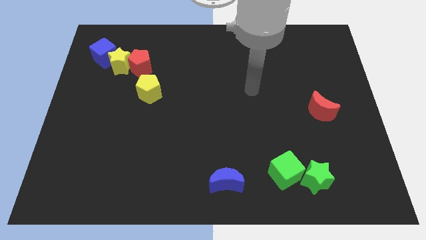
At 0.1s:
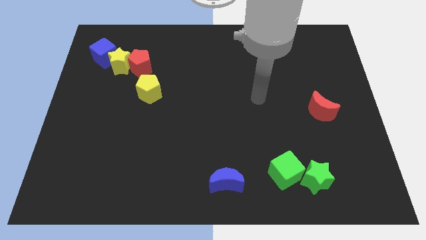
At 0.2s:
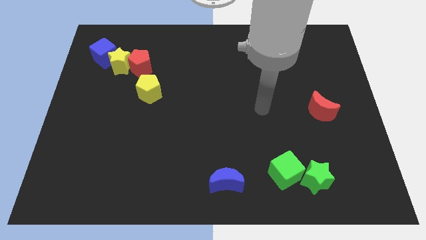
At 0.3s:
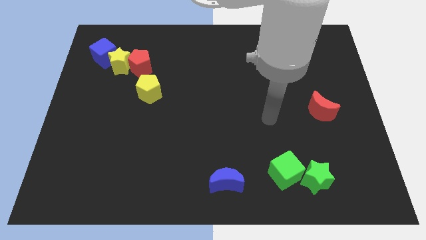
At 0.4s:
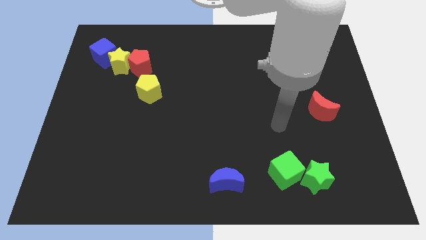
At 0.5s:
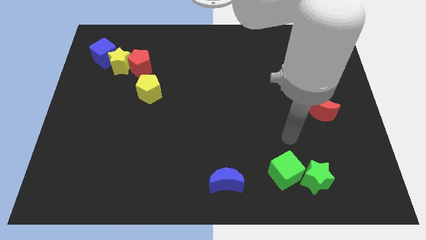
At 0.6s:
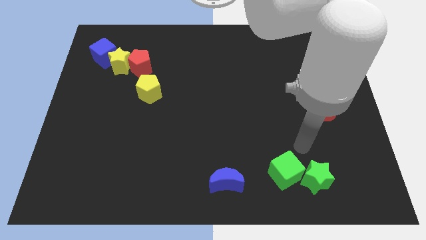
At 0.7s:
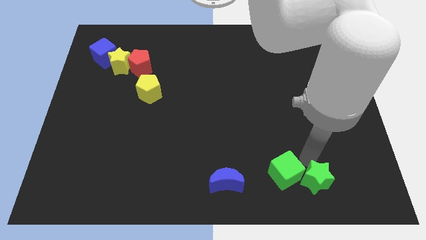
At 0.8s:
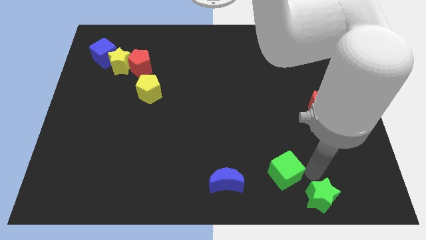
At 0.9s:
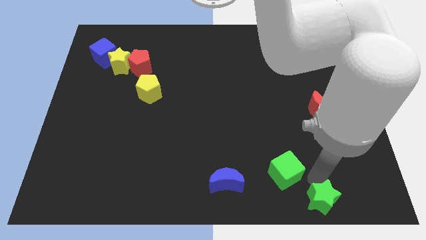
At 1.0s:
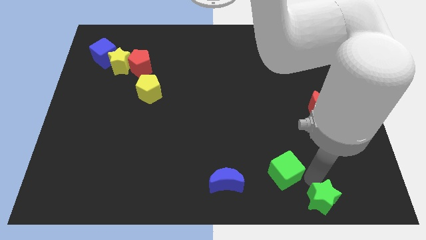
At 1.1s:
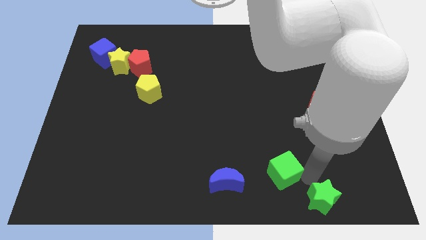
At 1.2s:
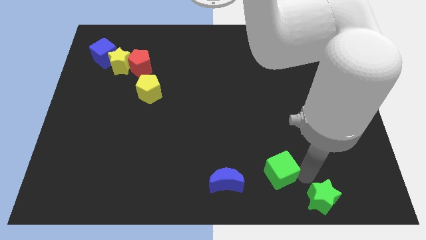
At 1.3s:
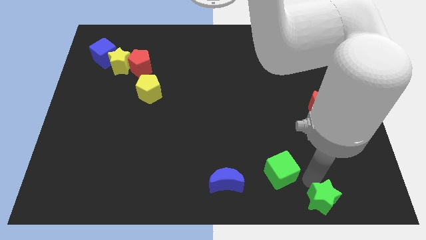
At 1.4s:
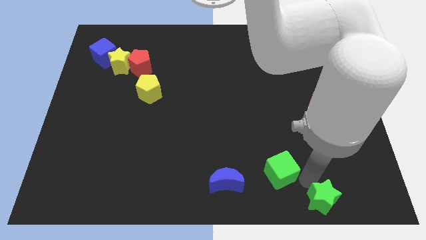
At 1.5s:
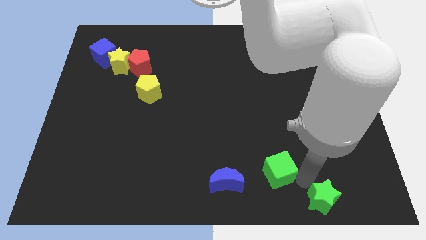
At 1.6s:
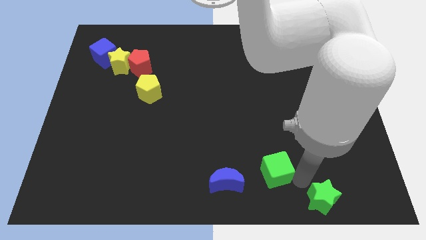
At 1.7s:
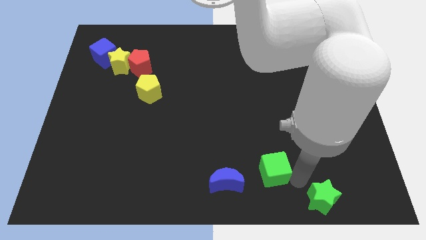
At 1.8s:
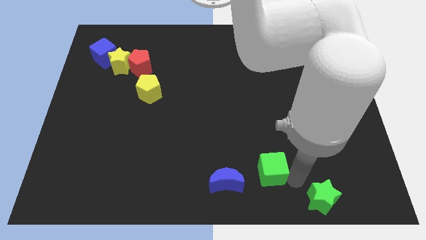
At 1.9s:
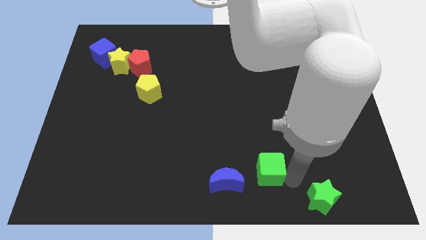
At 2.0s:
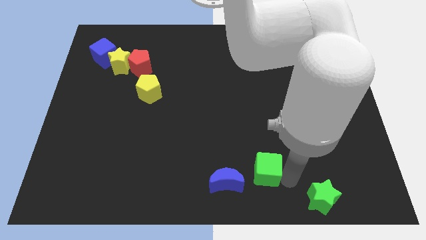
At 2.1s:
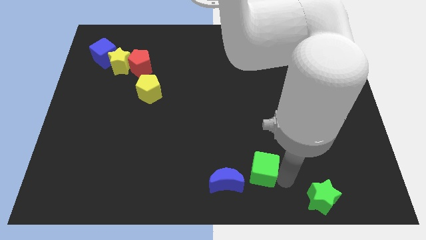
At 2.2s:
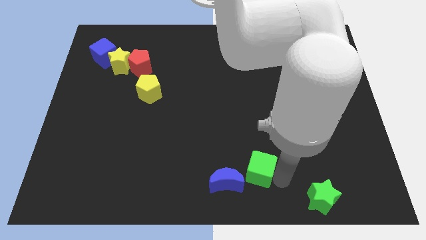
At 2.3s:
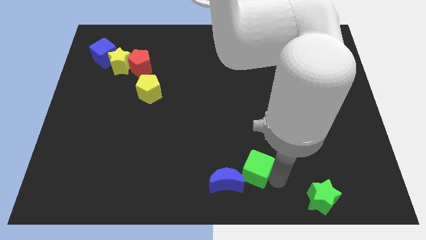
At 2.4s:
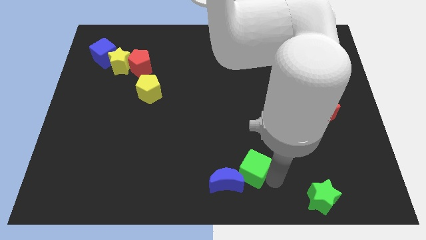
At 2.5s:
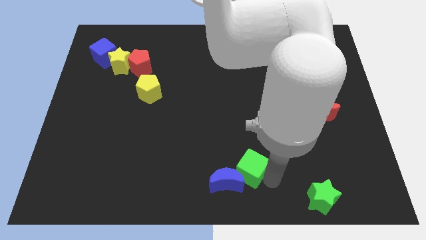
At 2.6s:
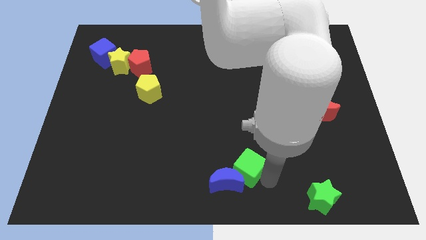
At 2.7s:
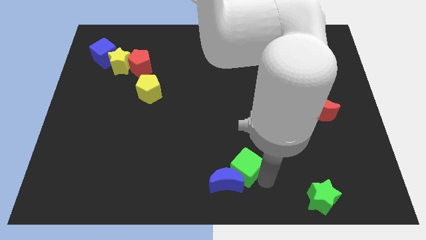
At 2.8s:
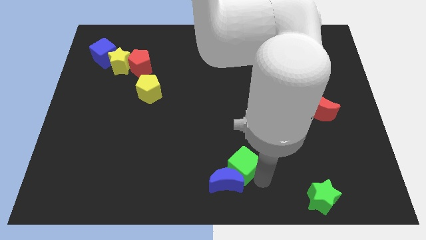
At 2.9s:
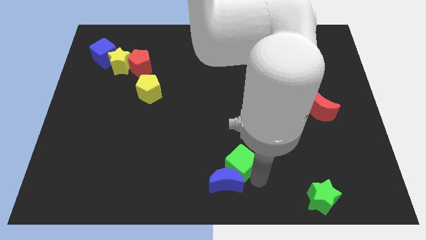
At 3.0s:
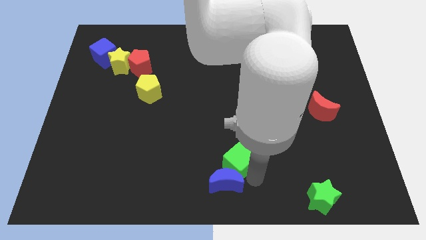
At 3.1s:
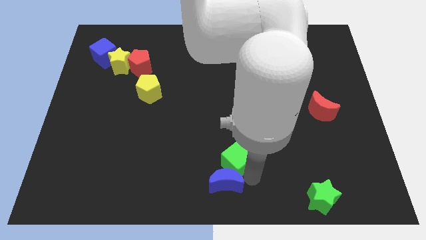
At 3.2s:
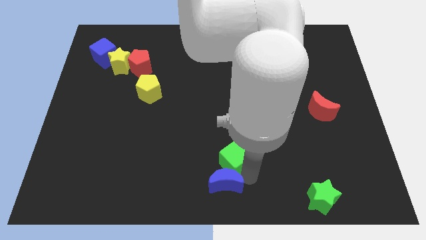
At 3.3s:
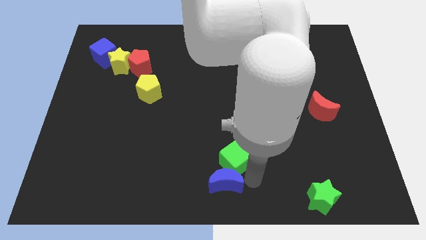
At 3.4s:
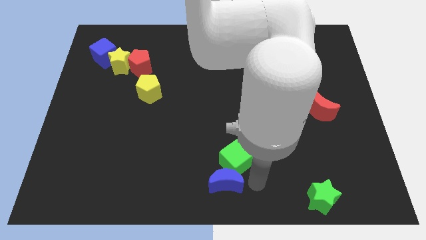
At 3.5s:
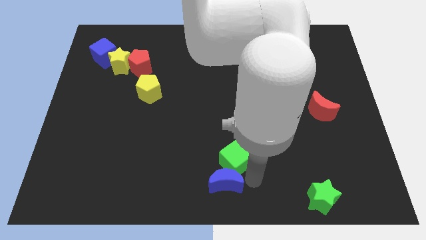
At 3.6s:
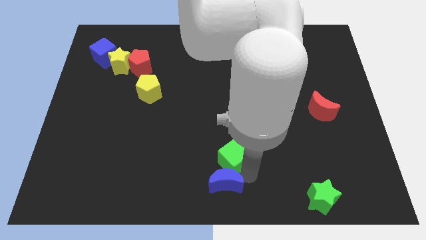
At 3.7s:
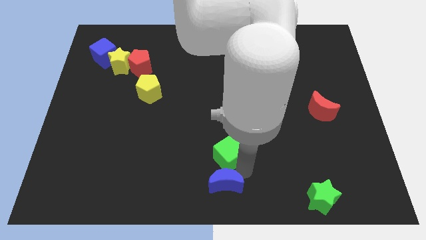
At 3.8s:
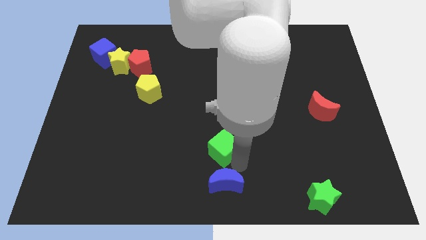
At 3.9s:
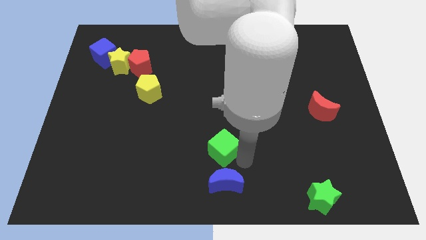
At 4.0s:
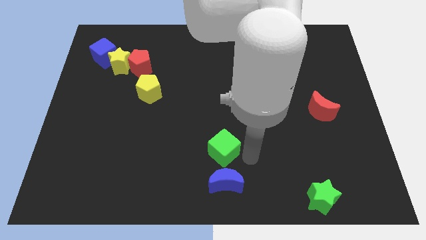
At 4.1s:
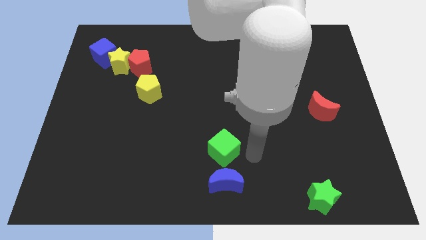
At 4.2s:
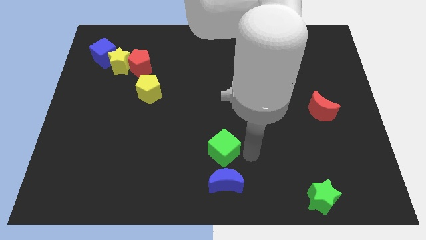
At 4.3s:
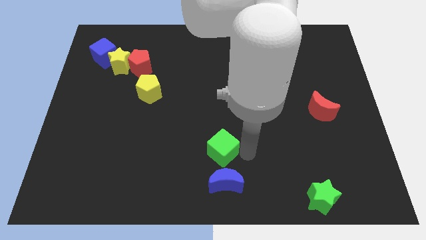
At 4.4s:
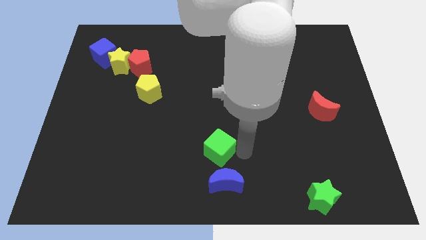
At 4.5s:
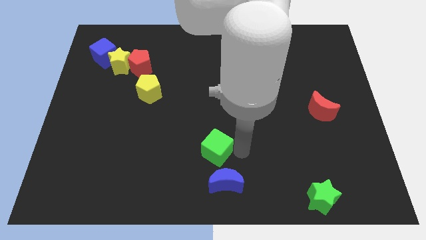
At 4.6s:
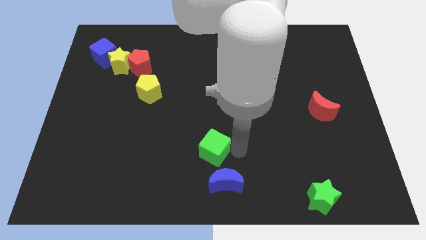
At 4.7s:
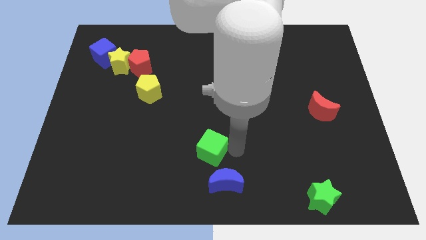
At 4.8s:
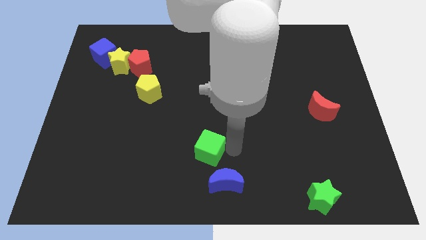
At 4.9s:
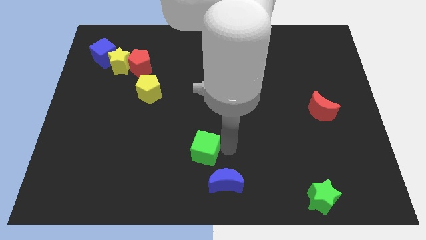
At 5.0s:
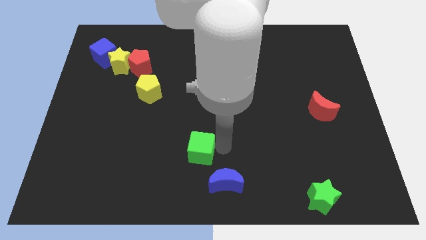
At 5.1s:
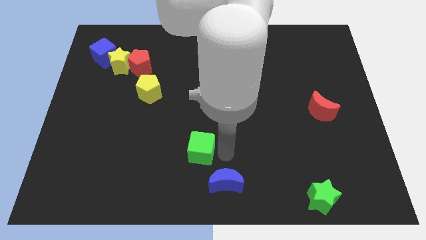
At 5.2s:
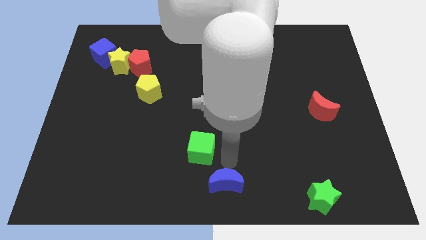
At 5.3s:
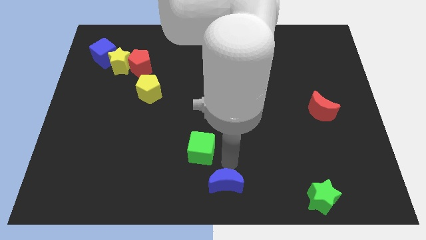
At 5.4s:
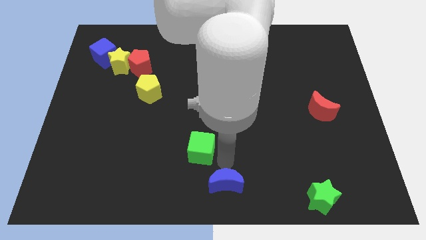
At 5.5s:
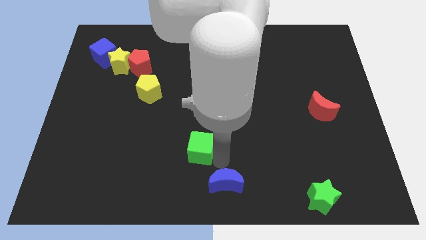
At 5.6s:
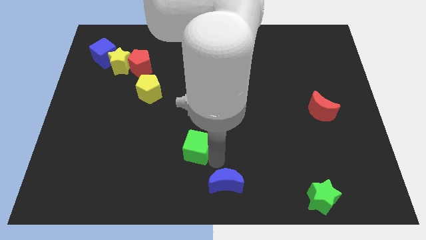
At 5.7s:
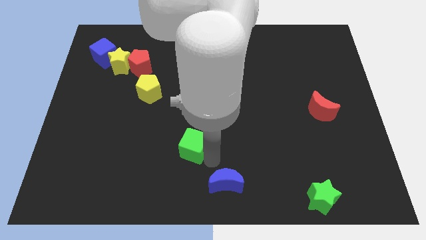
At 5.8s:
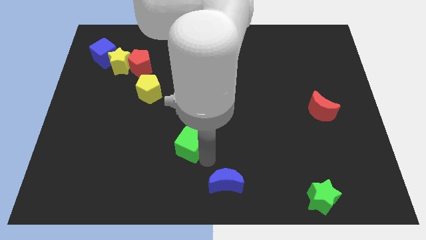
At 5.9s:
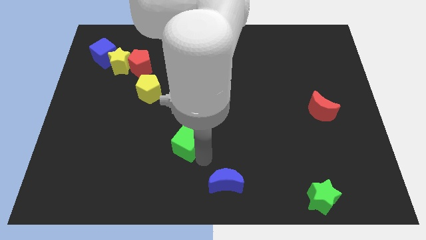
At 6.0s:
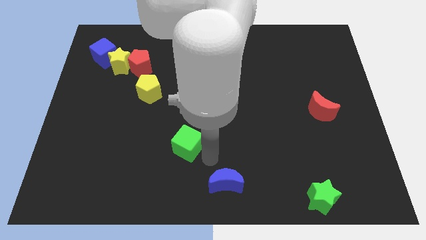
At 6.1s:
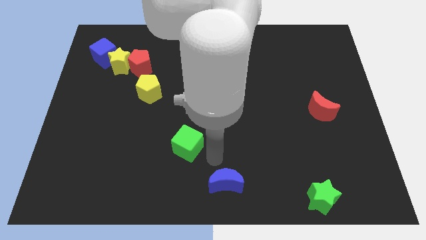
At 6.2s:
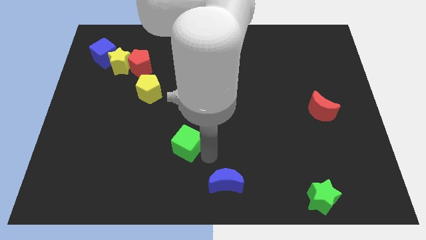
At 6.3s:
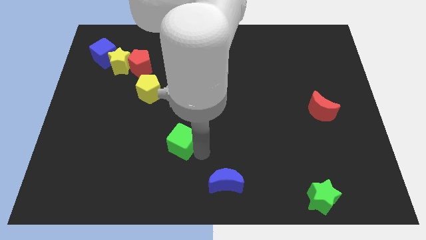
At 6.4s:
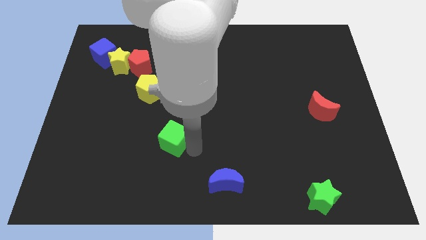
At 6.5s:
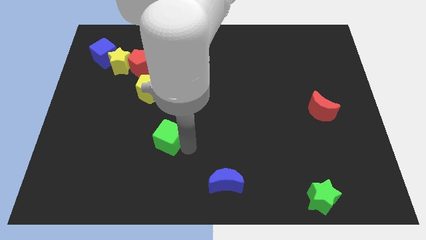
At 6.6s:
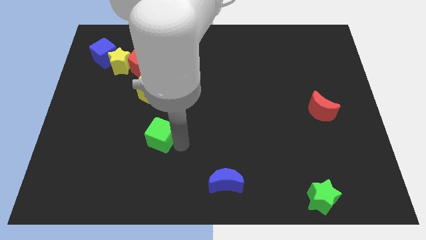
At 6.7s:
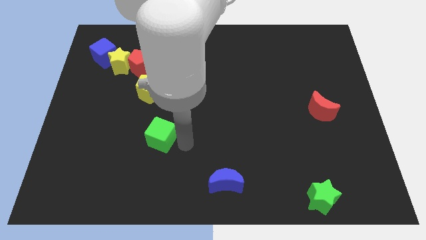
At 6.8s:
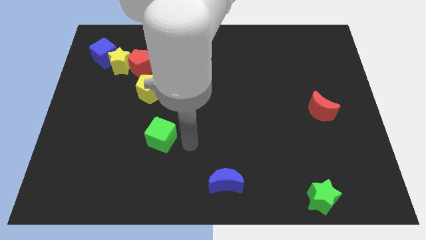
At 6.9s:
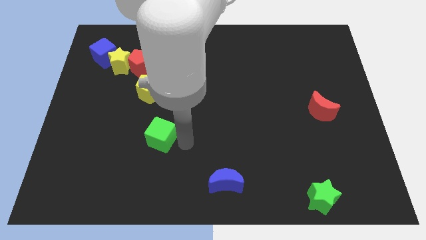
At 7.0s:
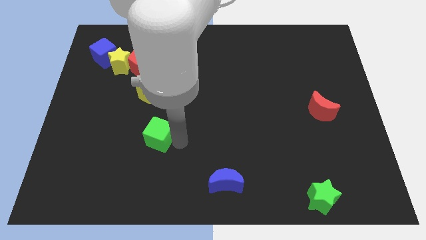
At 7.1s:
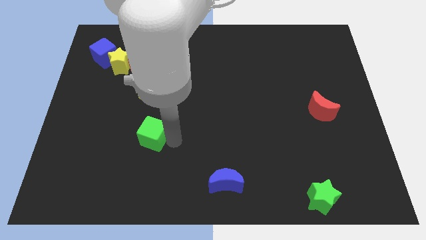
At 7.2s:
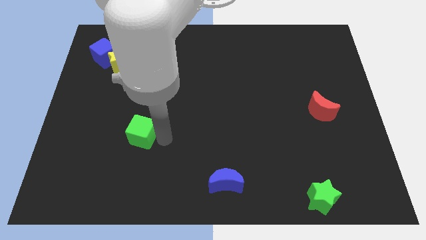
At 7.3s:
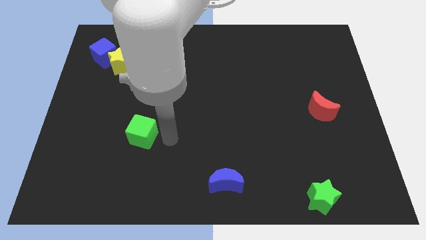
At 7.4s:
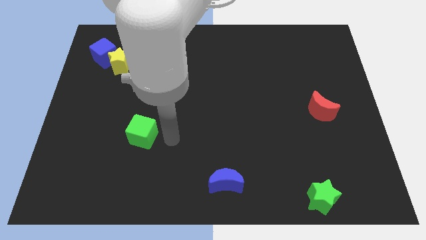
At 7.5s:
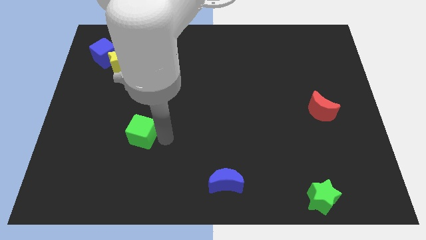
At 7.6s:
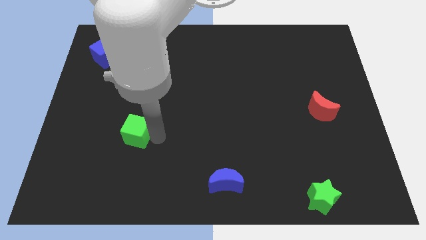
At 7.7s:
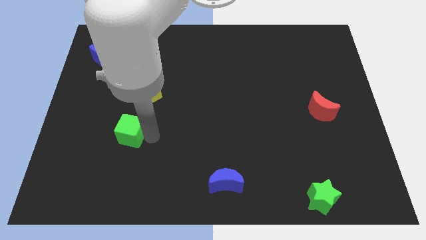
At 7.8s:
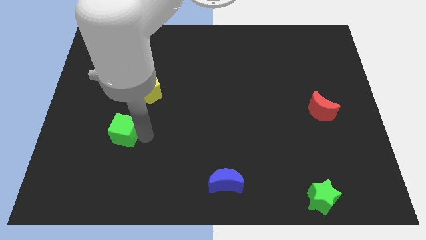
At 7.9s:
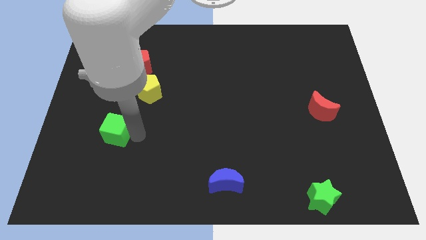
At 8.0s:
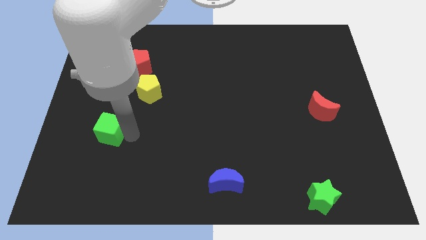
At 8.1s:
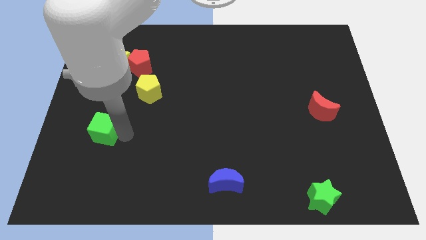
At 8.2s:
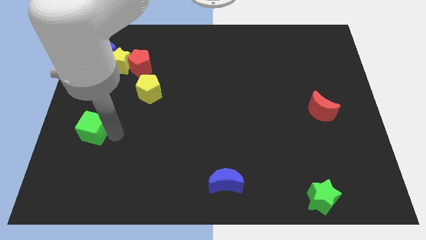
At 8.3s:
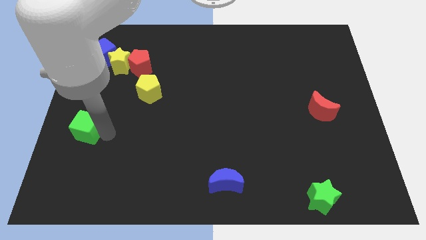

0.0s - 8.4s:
put the green cube to the center left
